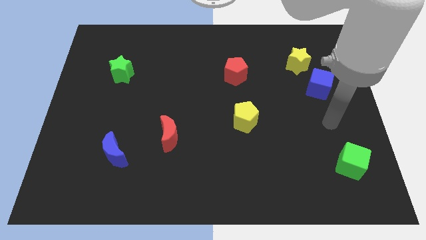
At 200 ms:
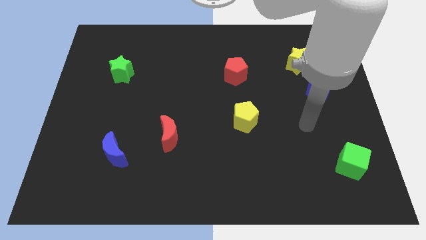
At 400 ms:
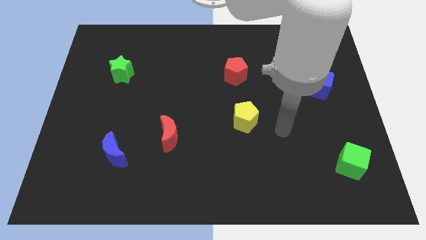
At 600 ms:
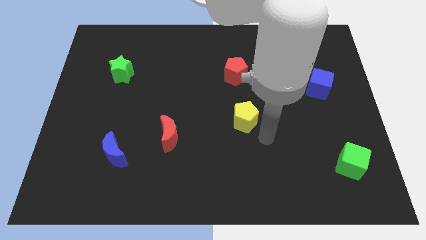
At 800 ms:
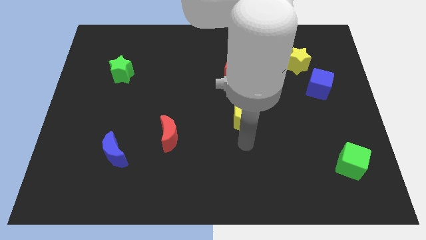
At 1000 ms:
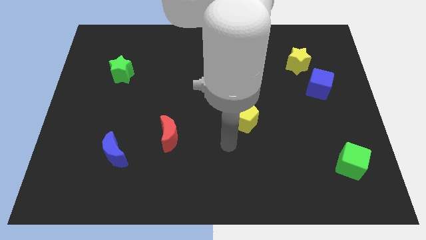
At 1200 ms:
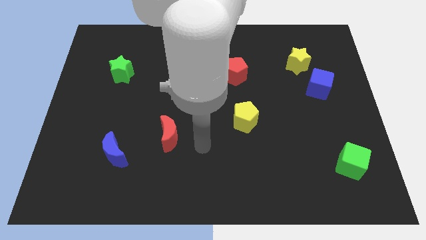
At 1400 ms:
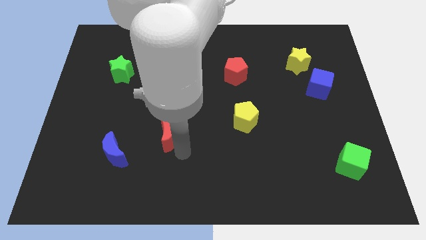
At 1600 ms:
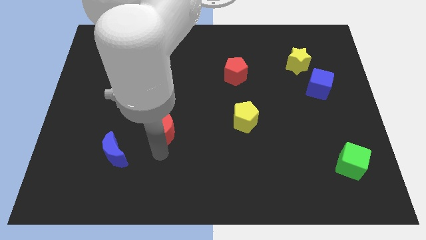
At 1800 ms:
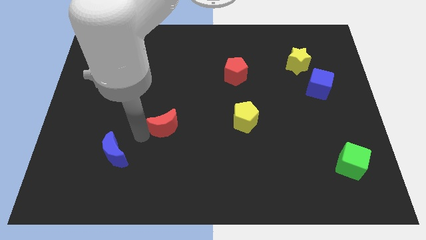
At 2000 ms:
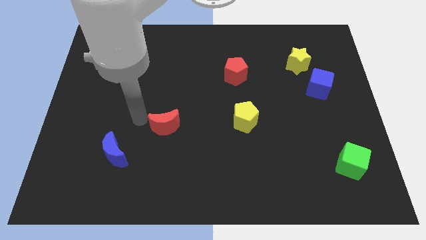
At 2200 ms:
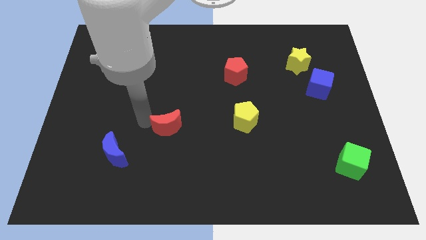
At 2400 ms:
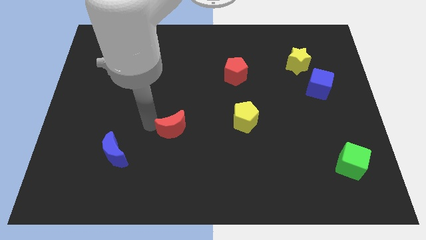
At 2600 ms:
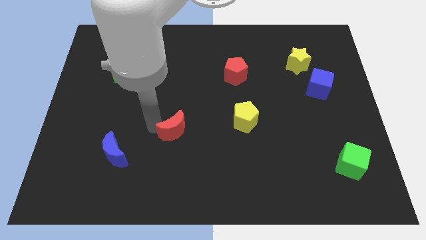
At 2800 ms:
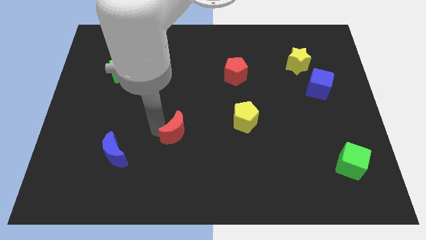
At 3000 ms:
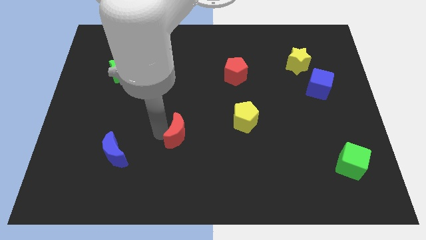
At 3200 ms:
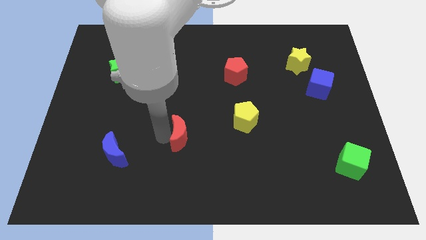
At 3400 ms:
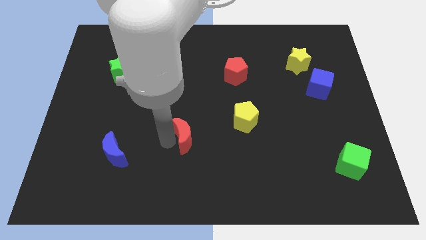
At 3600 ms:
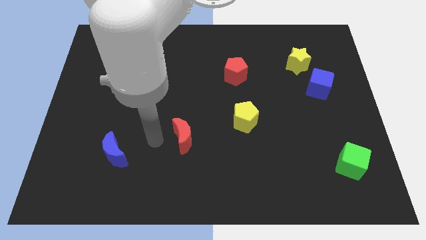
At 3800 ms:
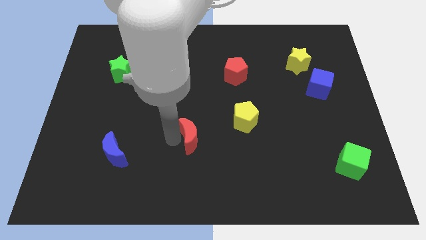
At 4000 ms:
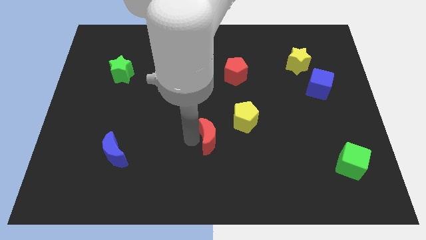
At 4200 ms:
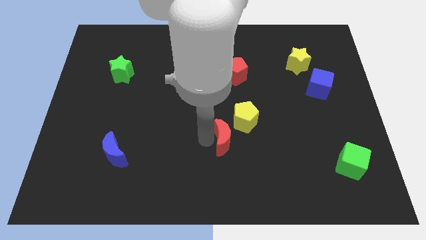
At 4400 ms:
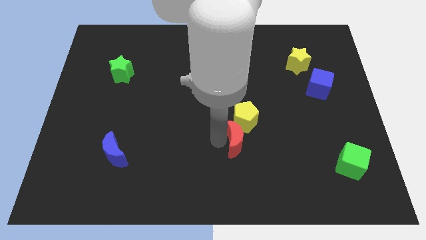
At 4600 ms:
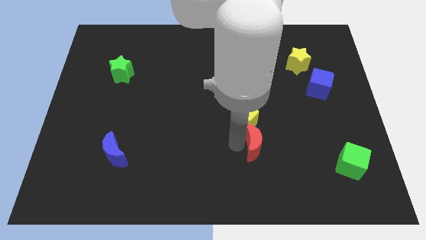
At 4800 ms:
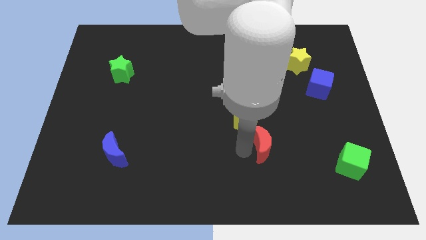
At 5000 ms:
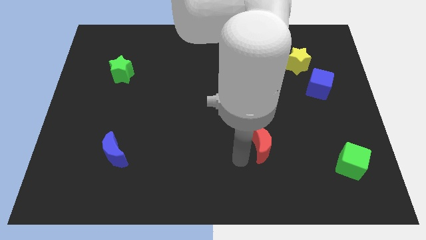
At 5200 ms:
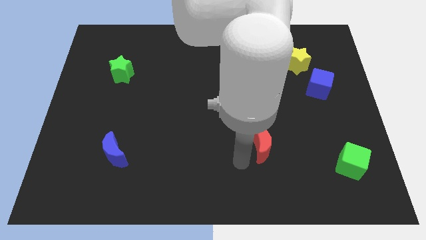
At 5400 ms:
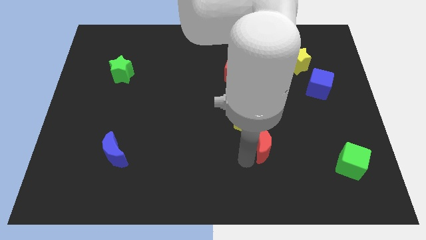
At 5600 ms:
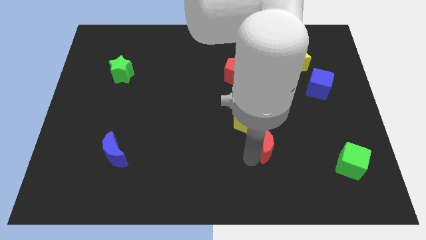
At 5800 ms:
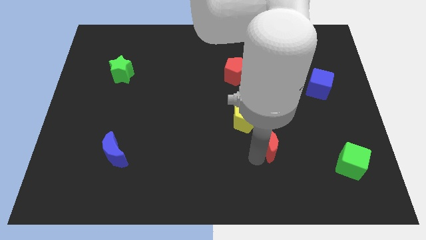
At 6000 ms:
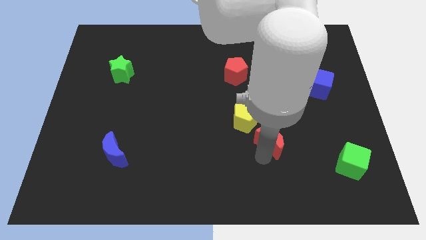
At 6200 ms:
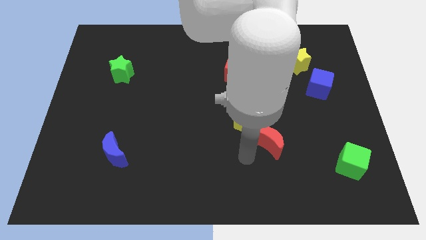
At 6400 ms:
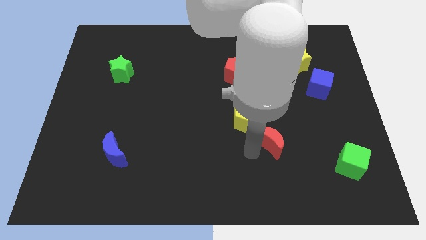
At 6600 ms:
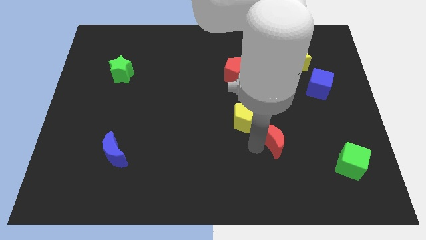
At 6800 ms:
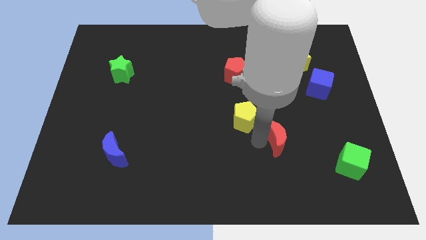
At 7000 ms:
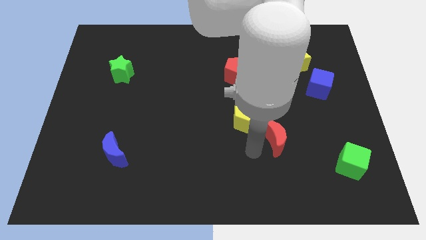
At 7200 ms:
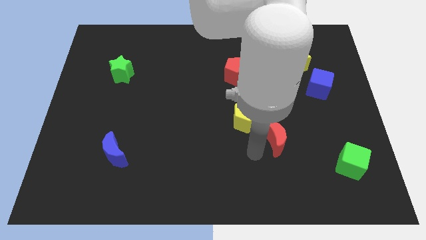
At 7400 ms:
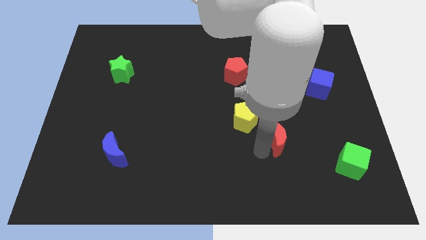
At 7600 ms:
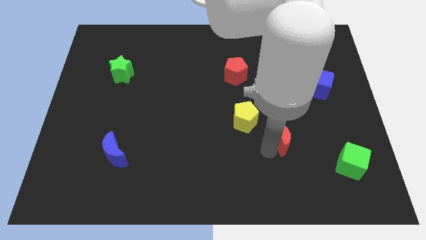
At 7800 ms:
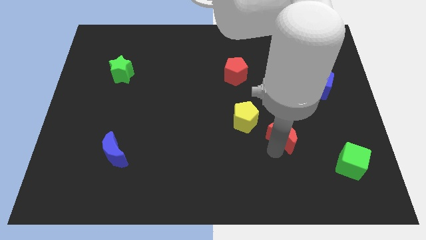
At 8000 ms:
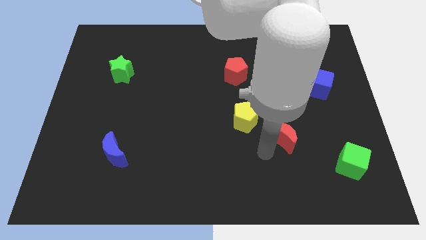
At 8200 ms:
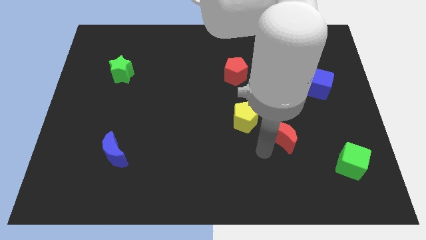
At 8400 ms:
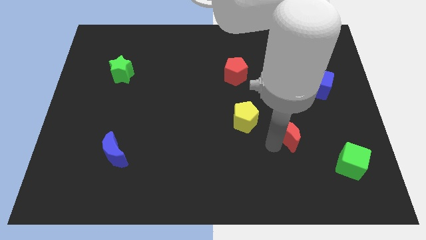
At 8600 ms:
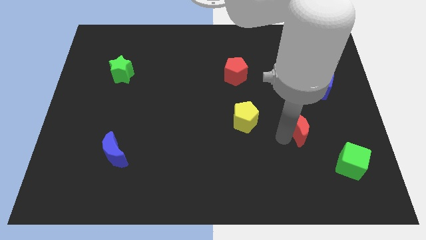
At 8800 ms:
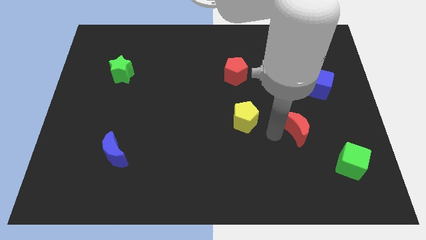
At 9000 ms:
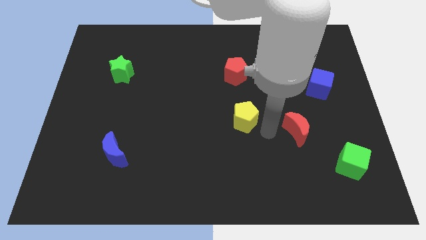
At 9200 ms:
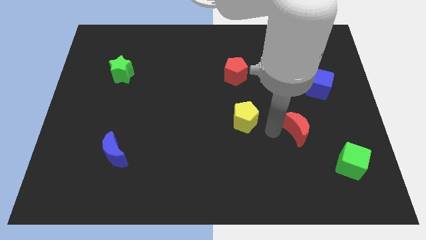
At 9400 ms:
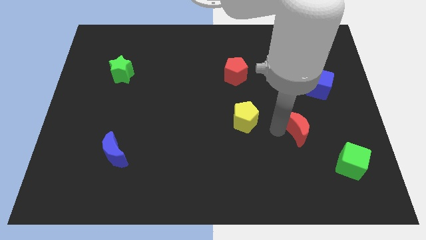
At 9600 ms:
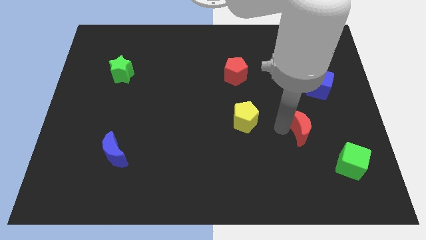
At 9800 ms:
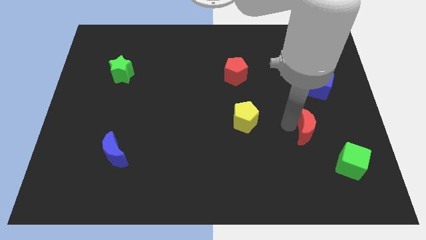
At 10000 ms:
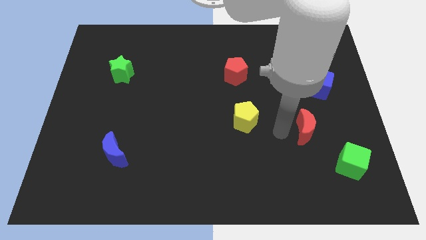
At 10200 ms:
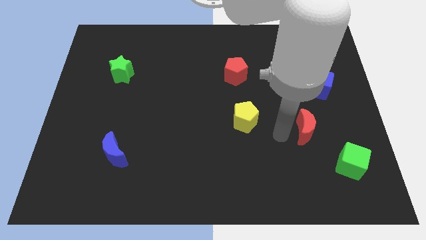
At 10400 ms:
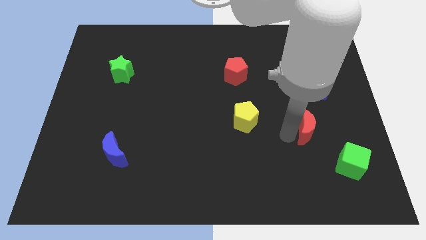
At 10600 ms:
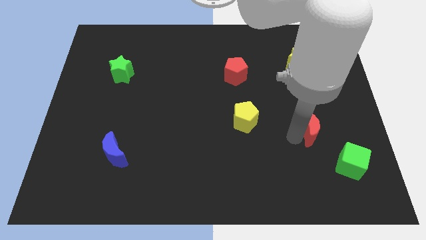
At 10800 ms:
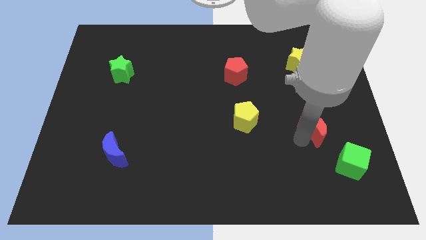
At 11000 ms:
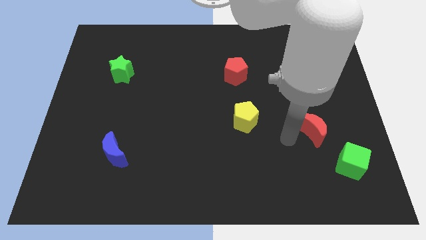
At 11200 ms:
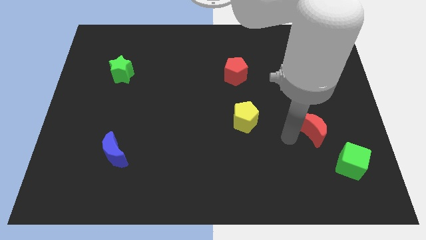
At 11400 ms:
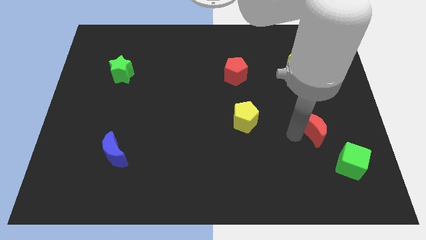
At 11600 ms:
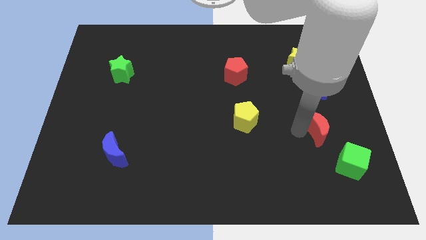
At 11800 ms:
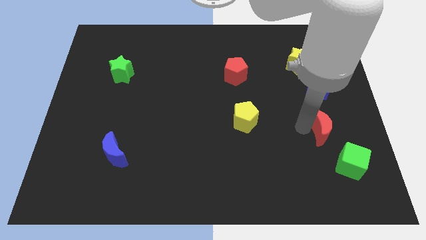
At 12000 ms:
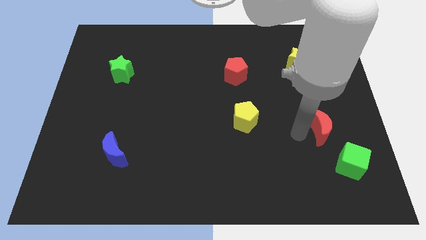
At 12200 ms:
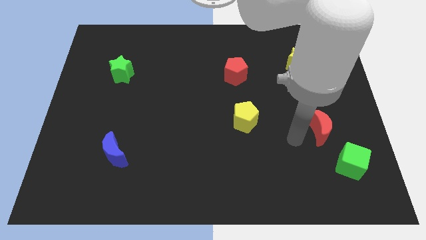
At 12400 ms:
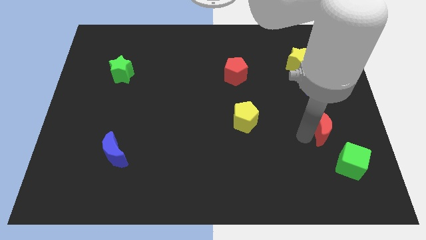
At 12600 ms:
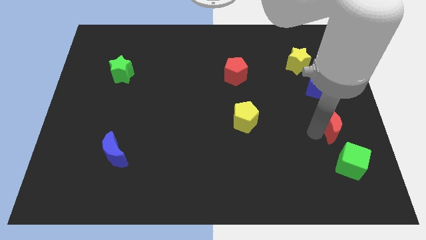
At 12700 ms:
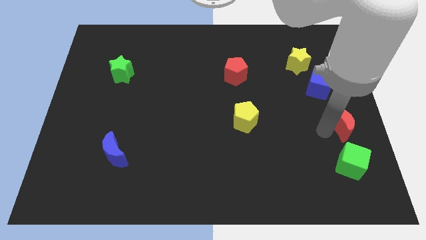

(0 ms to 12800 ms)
push the red moon to the center right

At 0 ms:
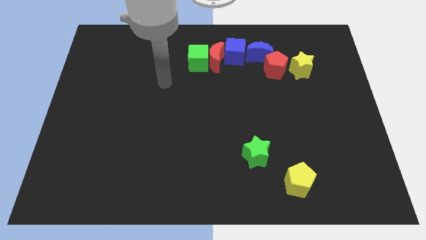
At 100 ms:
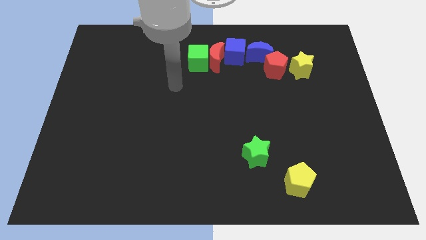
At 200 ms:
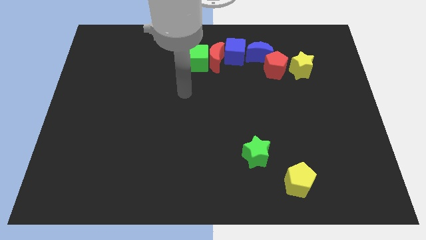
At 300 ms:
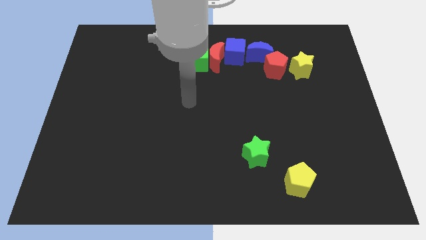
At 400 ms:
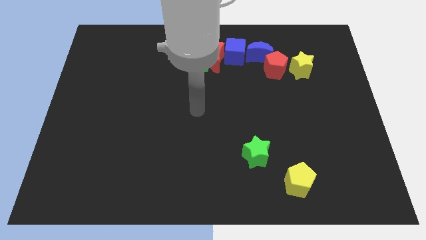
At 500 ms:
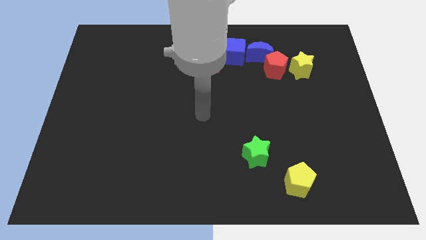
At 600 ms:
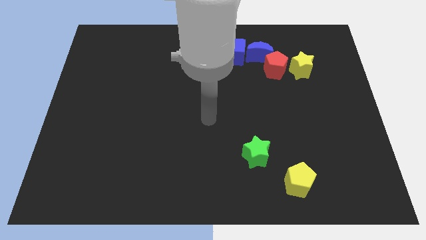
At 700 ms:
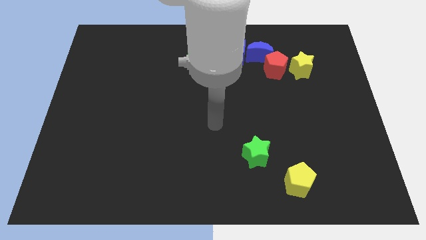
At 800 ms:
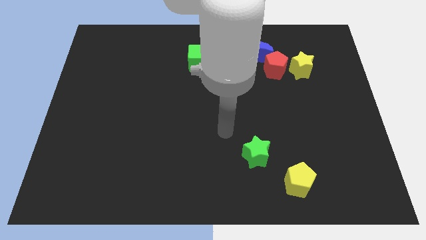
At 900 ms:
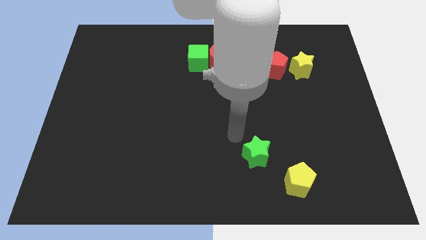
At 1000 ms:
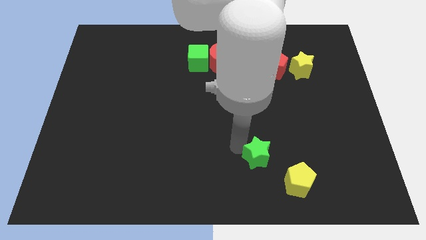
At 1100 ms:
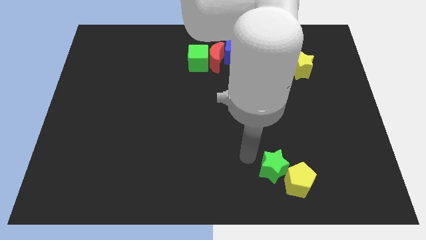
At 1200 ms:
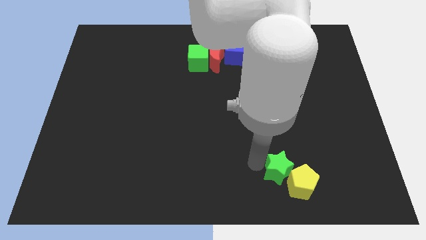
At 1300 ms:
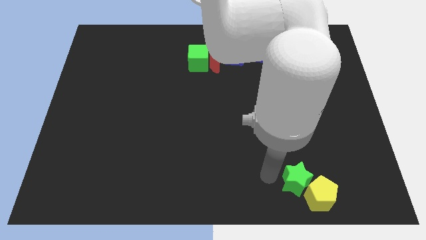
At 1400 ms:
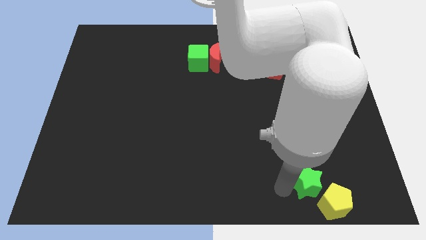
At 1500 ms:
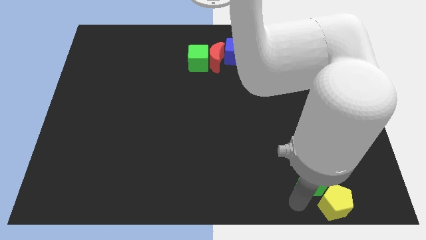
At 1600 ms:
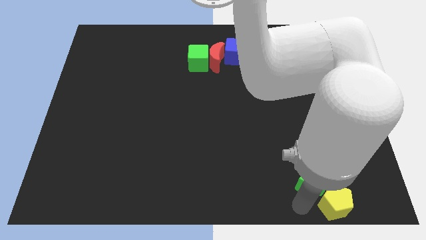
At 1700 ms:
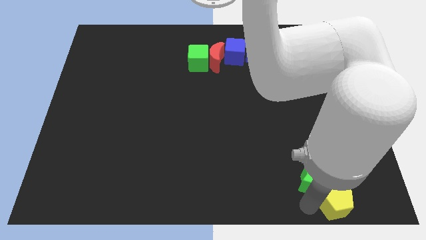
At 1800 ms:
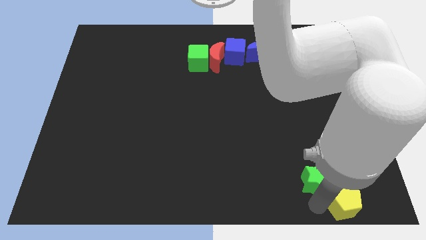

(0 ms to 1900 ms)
slide the yellow pentagon to the bottom right

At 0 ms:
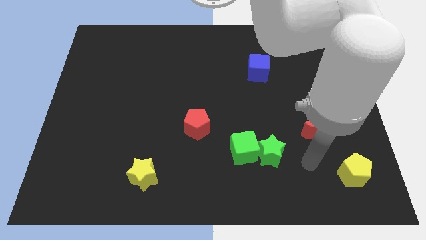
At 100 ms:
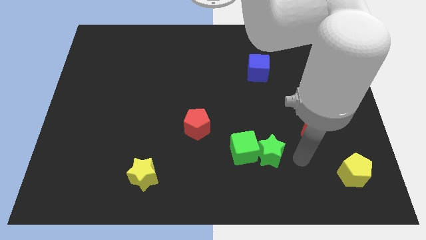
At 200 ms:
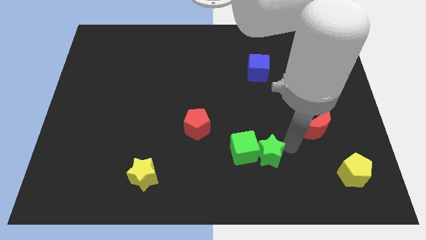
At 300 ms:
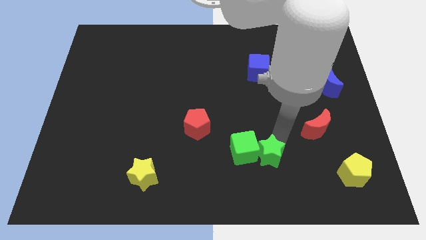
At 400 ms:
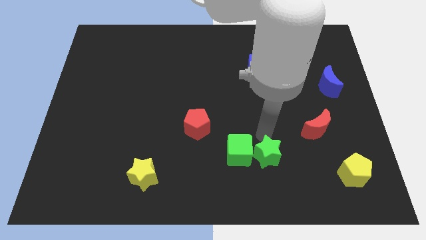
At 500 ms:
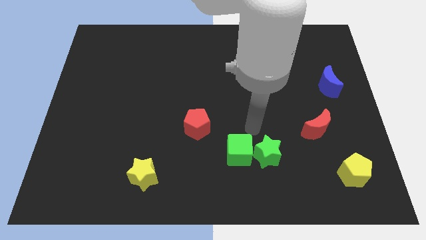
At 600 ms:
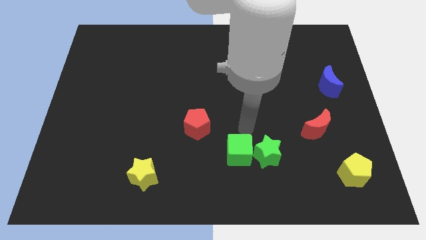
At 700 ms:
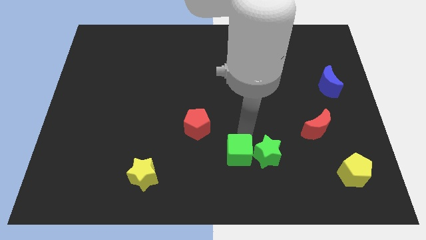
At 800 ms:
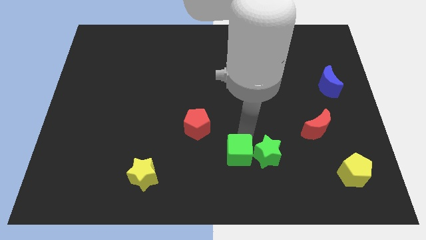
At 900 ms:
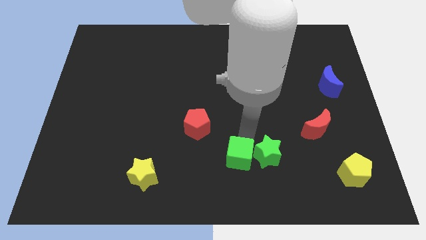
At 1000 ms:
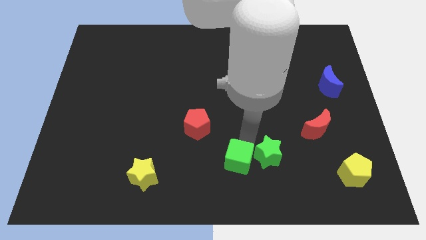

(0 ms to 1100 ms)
slide the green cube to the bottom side
